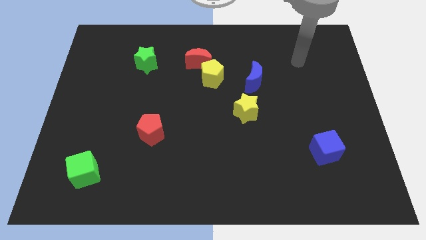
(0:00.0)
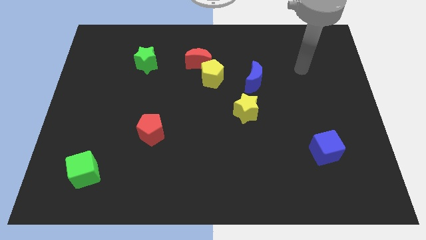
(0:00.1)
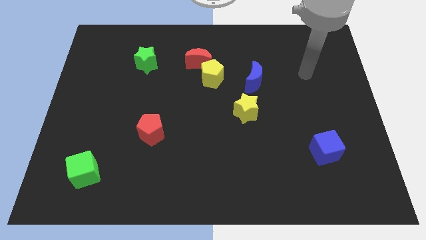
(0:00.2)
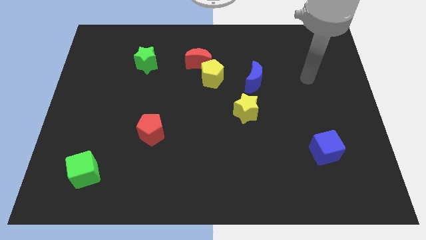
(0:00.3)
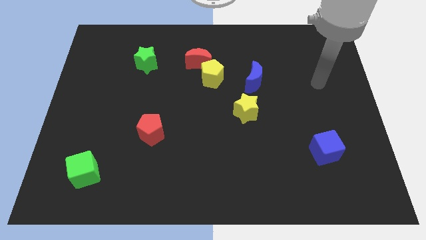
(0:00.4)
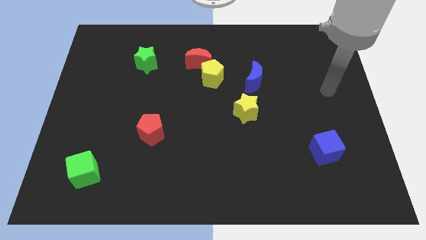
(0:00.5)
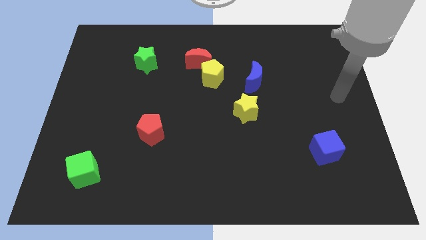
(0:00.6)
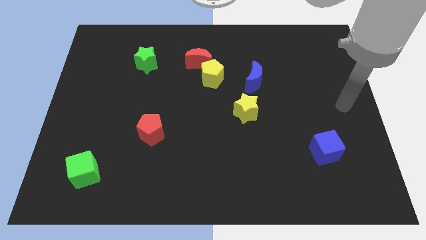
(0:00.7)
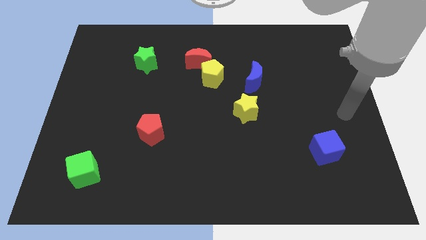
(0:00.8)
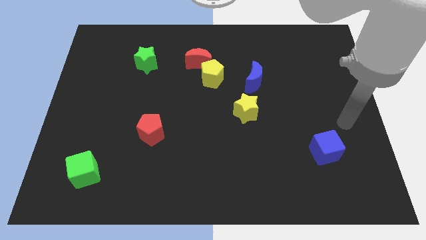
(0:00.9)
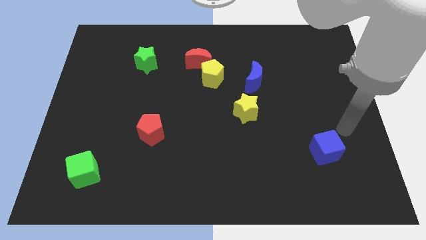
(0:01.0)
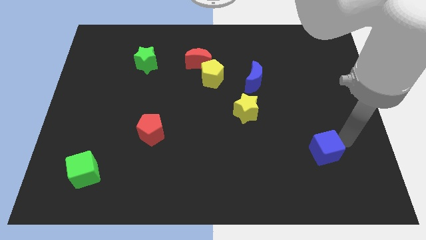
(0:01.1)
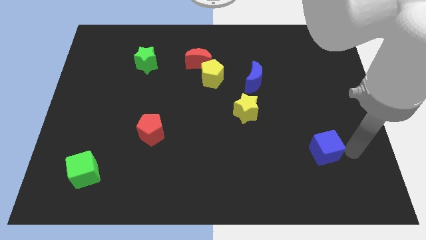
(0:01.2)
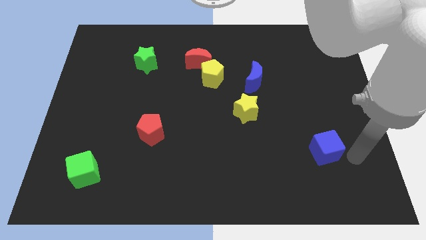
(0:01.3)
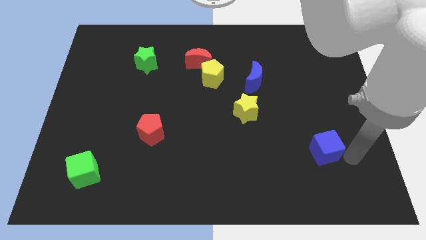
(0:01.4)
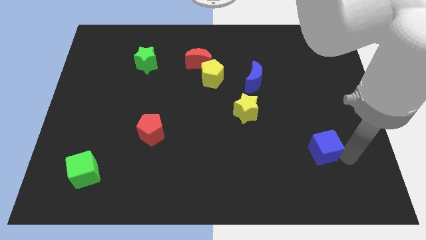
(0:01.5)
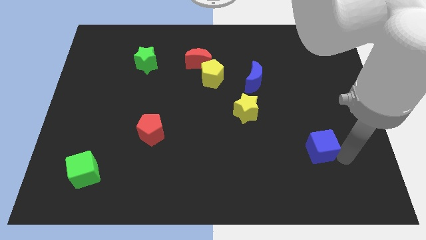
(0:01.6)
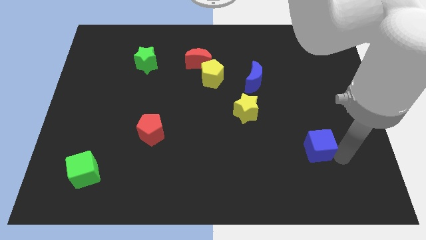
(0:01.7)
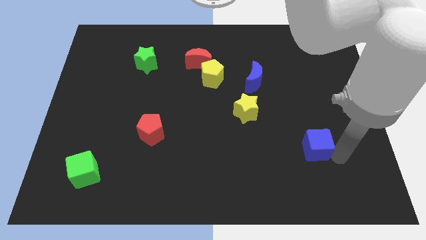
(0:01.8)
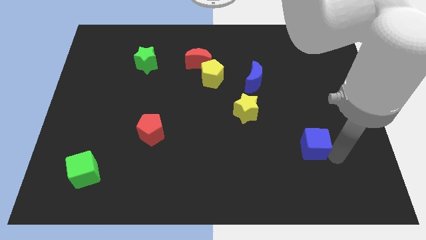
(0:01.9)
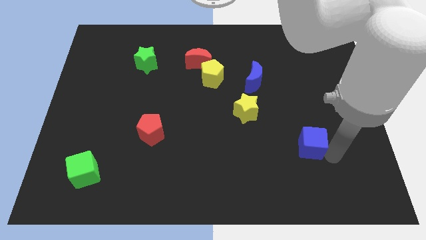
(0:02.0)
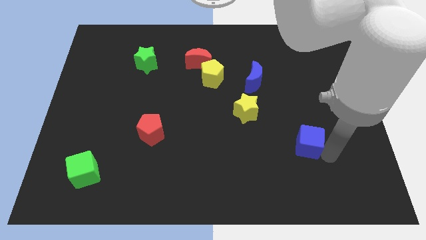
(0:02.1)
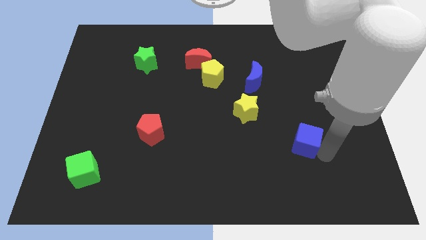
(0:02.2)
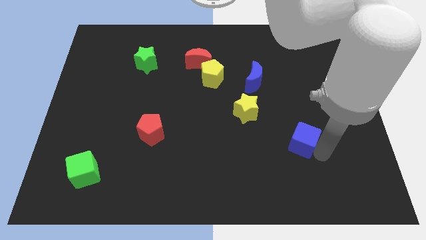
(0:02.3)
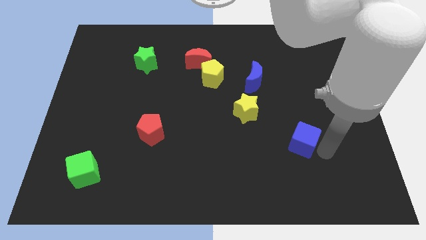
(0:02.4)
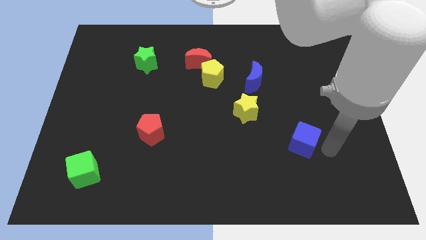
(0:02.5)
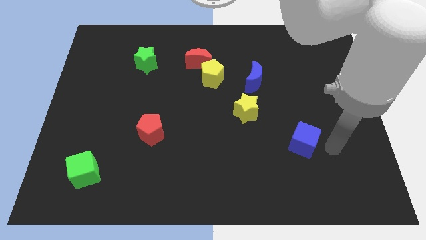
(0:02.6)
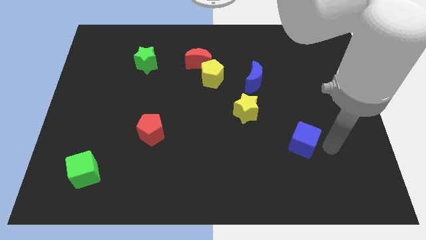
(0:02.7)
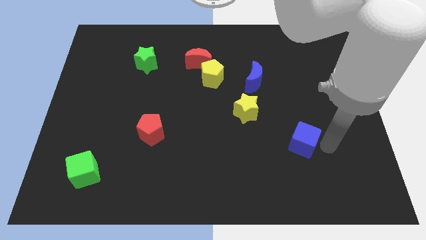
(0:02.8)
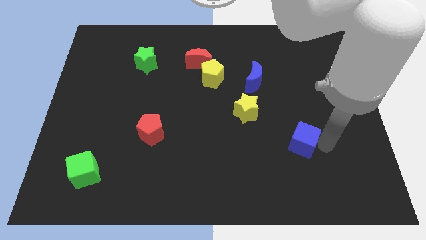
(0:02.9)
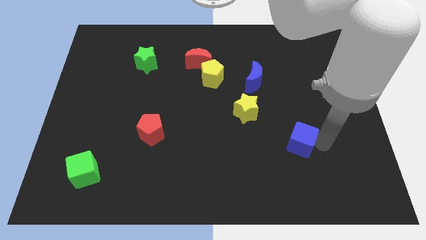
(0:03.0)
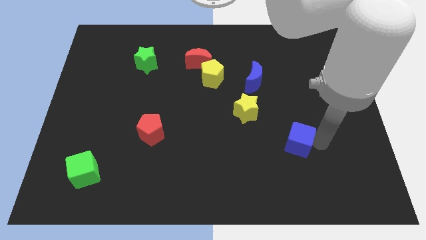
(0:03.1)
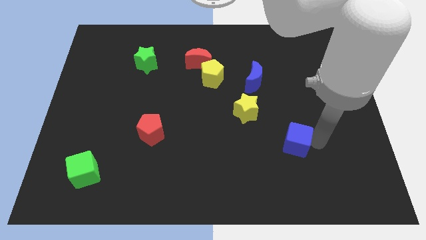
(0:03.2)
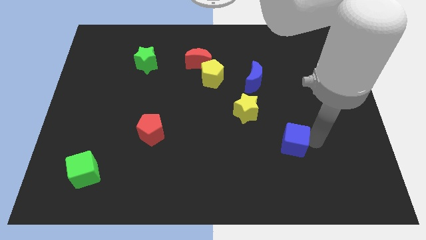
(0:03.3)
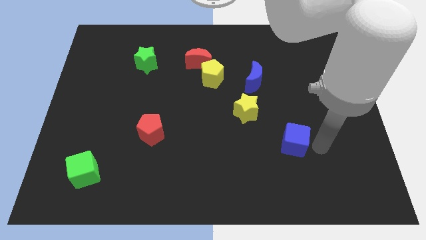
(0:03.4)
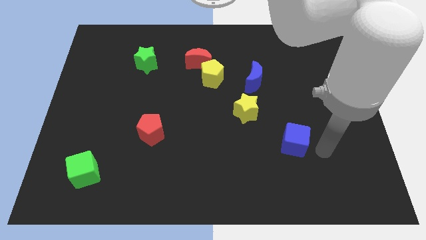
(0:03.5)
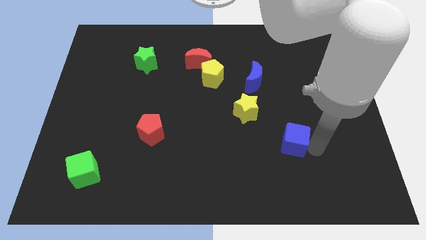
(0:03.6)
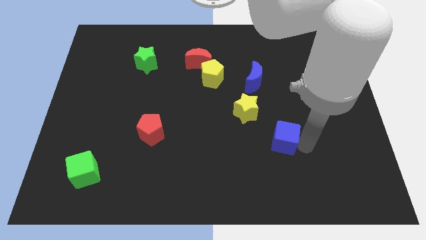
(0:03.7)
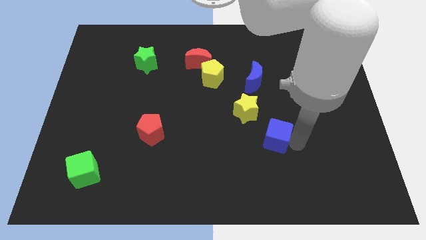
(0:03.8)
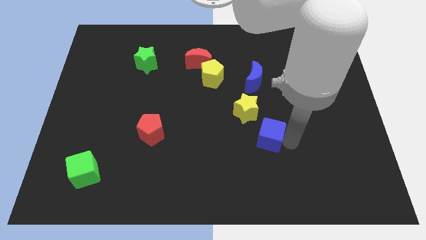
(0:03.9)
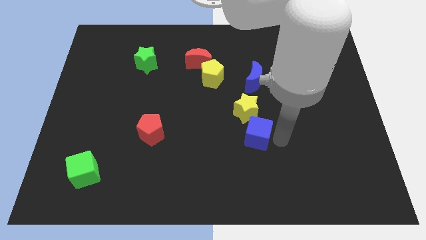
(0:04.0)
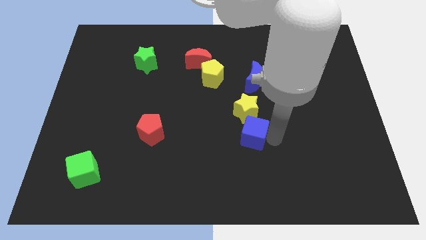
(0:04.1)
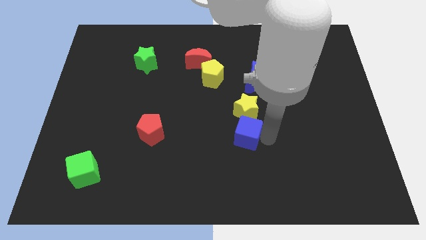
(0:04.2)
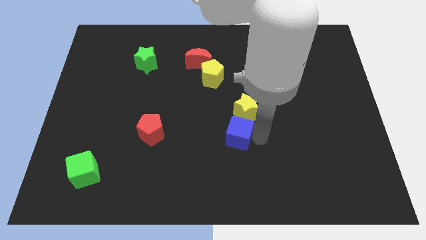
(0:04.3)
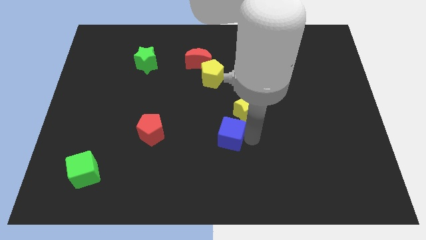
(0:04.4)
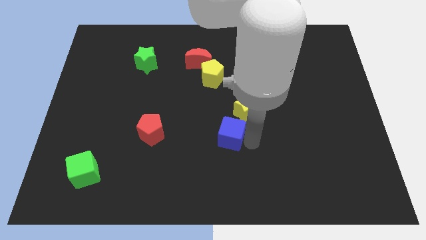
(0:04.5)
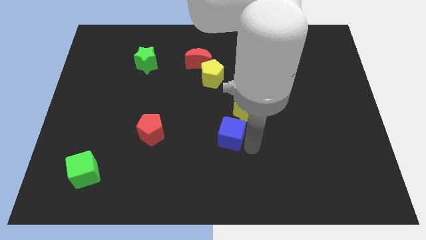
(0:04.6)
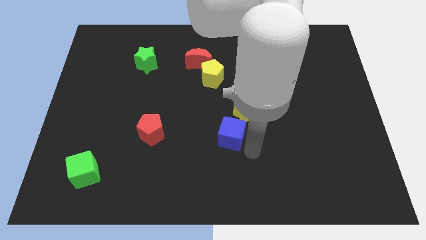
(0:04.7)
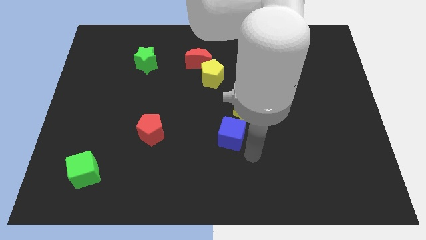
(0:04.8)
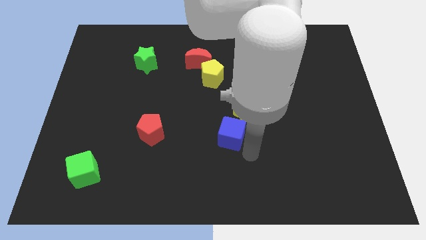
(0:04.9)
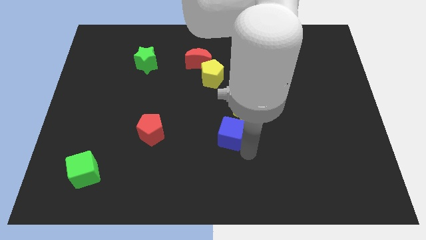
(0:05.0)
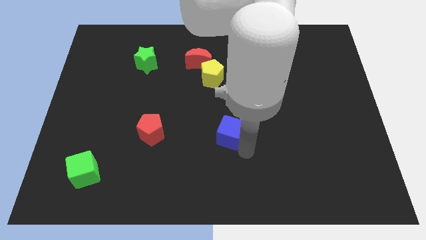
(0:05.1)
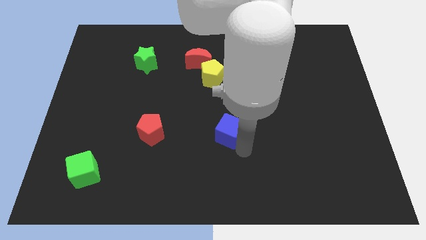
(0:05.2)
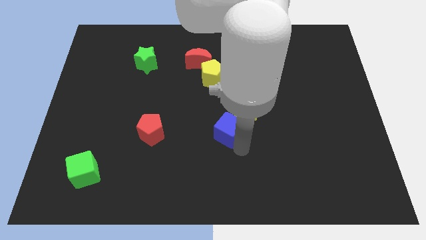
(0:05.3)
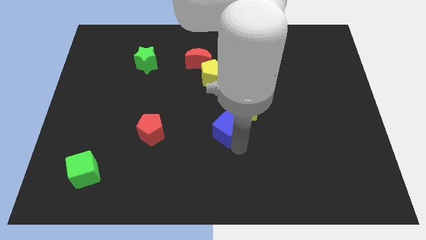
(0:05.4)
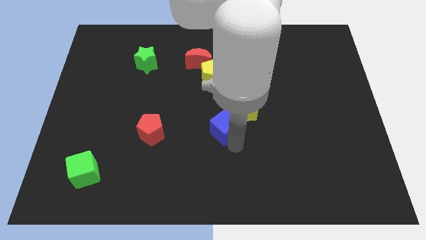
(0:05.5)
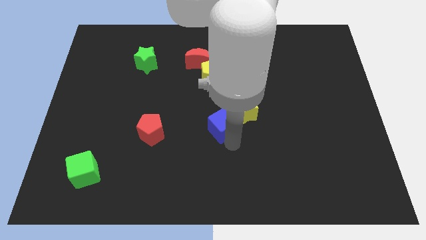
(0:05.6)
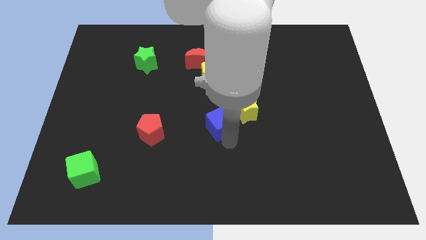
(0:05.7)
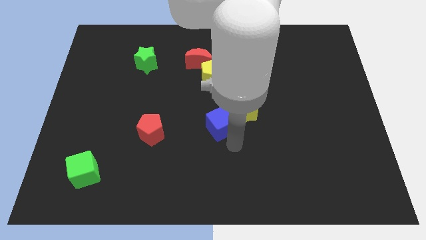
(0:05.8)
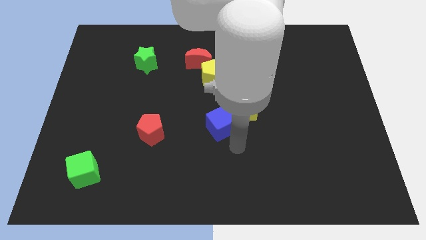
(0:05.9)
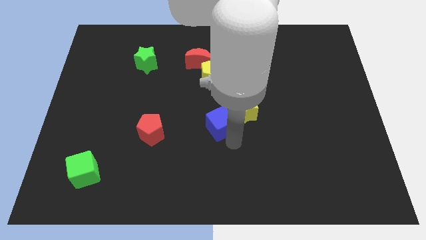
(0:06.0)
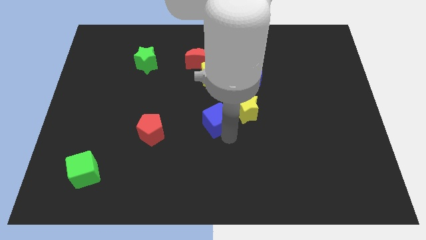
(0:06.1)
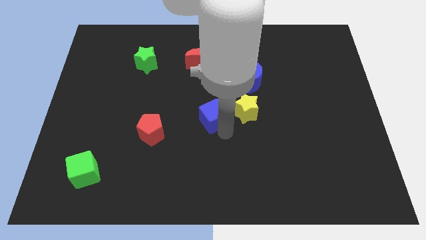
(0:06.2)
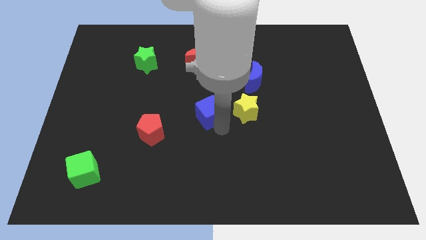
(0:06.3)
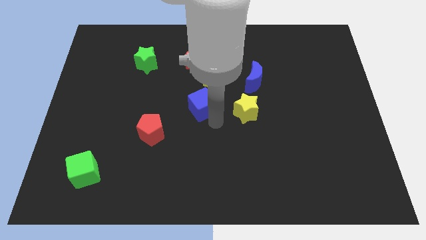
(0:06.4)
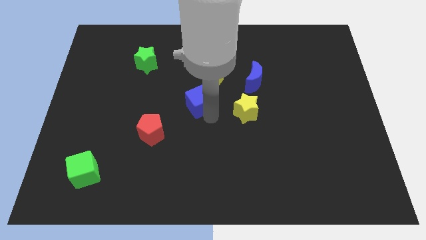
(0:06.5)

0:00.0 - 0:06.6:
put the blue cube to the bottom left of the yellow pentagon

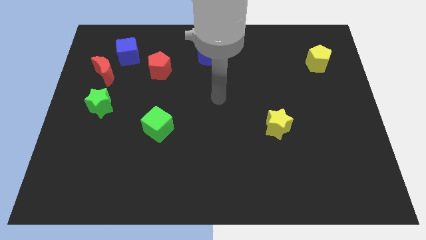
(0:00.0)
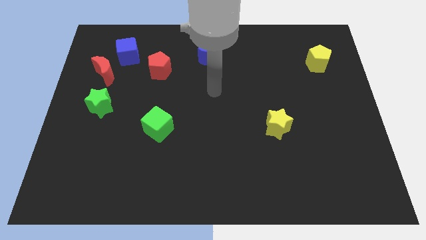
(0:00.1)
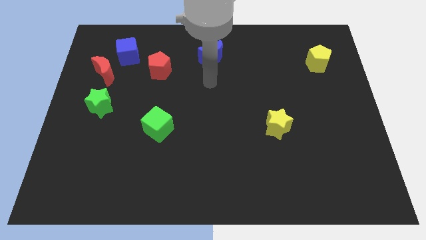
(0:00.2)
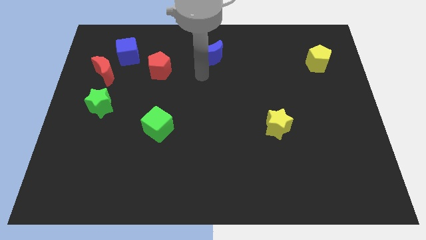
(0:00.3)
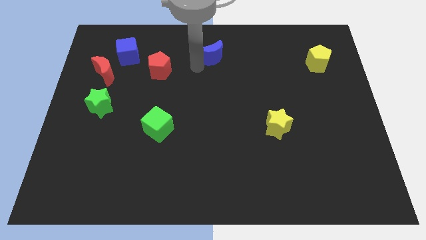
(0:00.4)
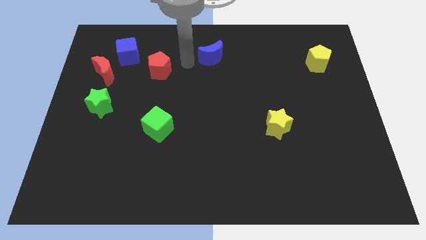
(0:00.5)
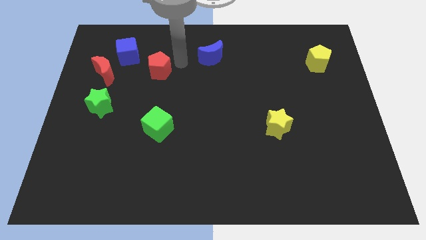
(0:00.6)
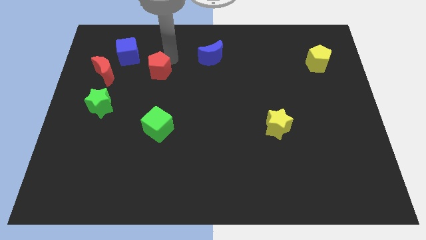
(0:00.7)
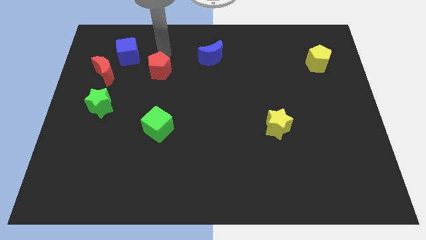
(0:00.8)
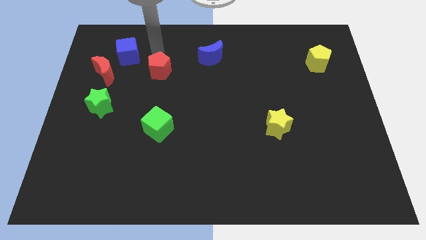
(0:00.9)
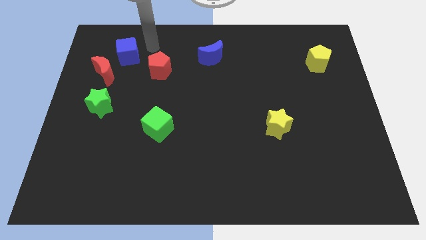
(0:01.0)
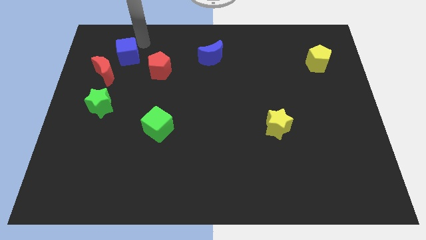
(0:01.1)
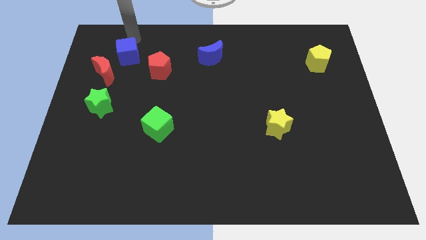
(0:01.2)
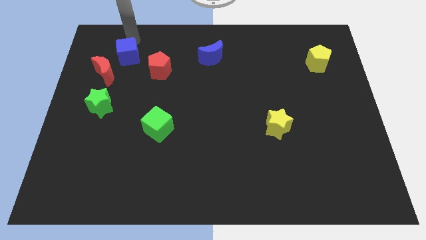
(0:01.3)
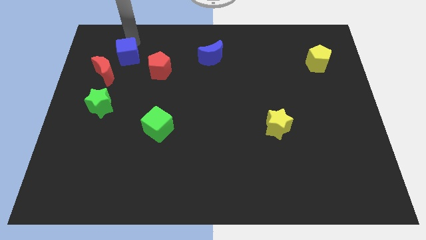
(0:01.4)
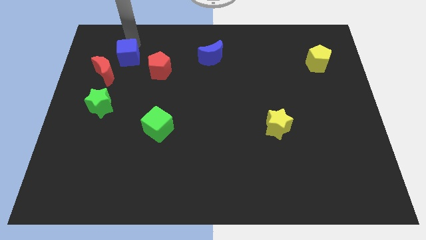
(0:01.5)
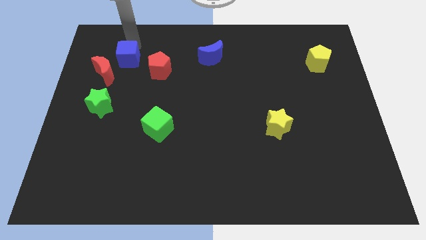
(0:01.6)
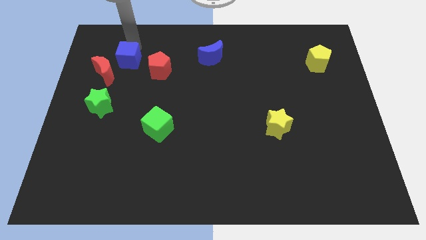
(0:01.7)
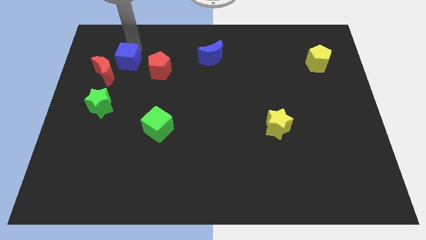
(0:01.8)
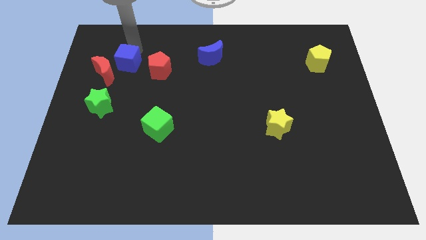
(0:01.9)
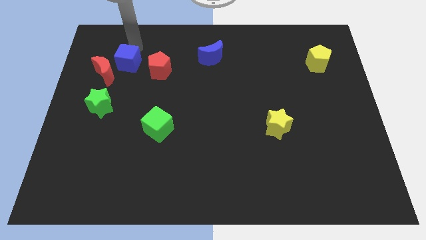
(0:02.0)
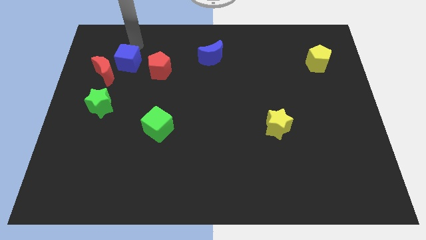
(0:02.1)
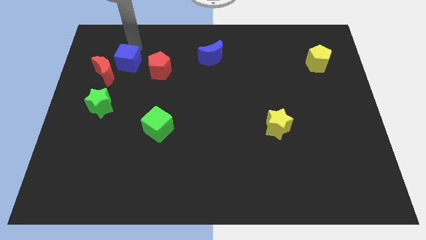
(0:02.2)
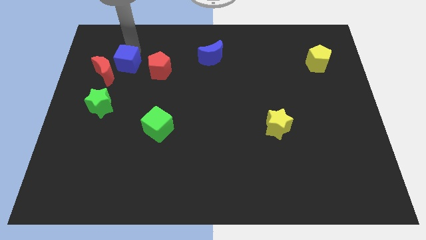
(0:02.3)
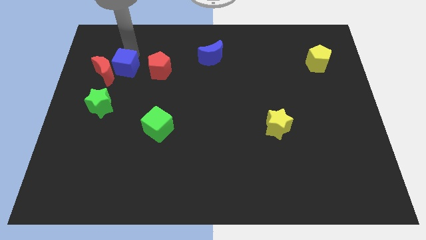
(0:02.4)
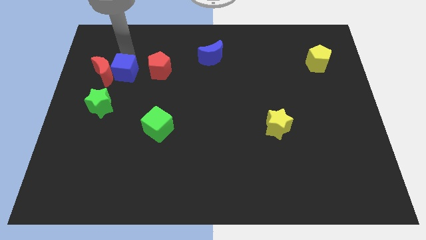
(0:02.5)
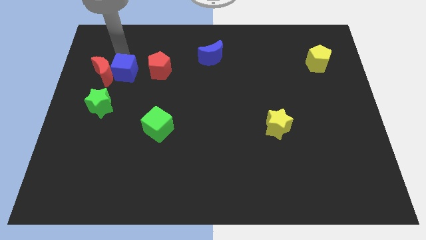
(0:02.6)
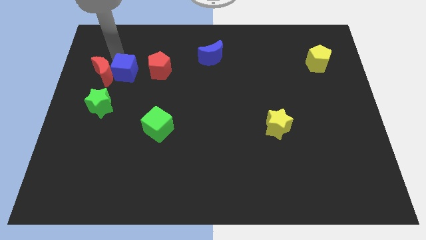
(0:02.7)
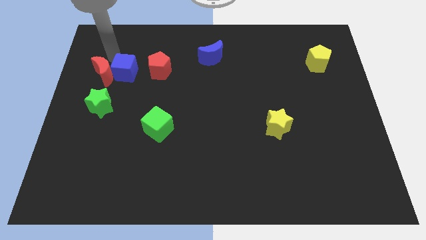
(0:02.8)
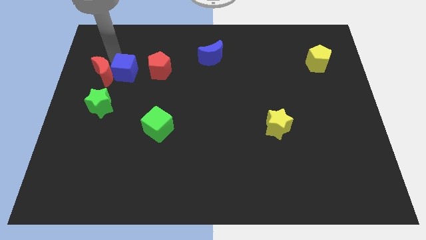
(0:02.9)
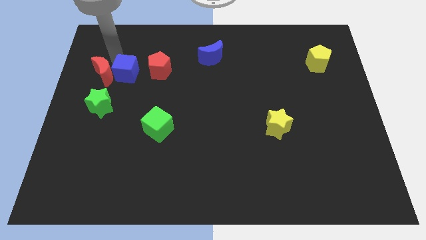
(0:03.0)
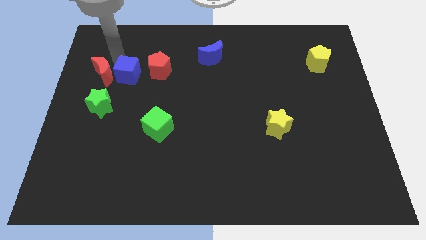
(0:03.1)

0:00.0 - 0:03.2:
push the blue cube diagonally down and to the left of the red pentagon
